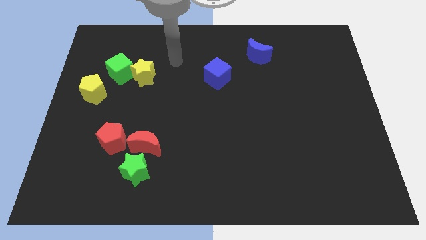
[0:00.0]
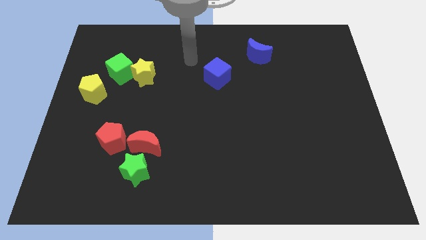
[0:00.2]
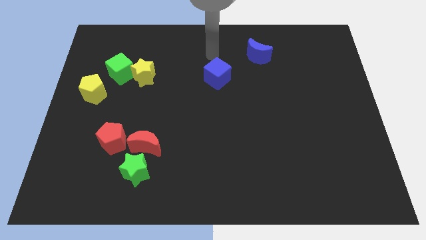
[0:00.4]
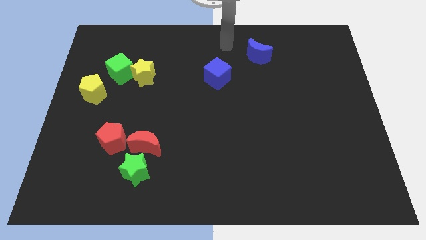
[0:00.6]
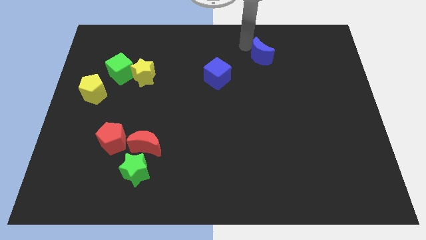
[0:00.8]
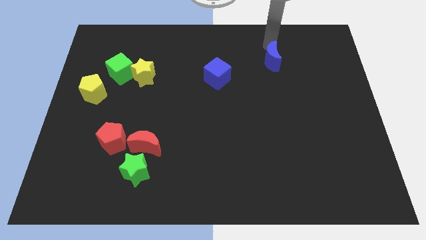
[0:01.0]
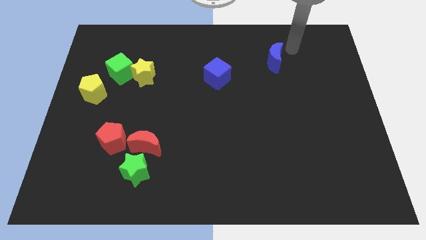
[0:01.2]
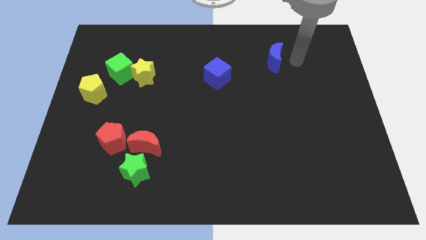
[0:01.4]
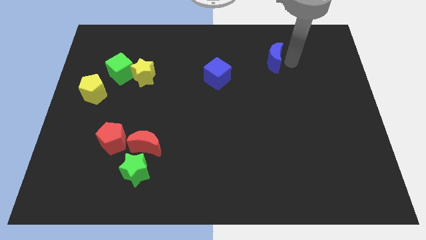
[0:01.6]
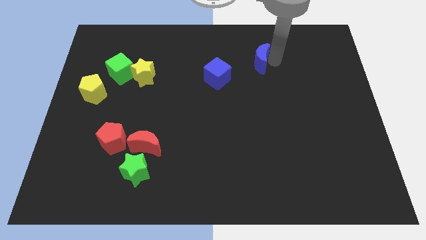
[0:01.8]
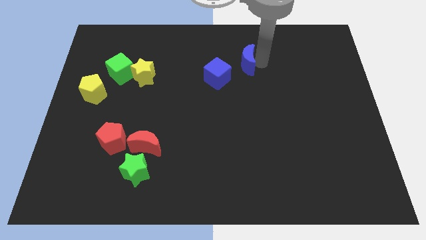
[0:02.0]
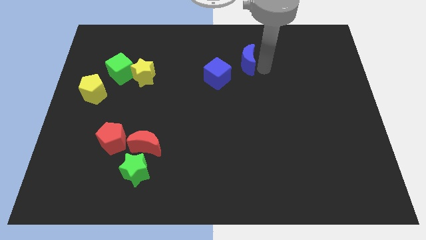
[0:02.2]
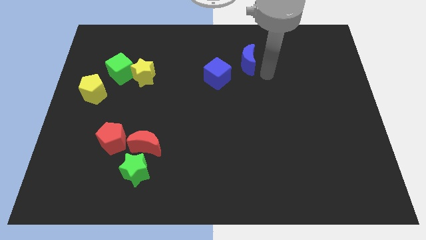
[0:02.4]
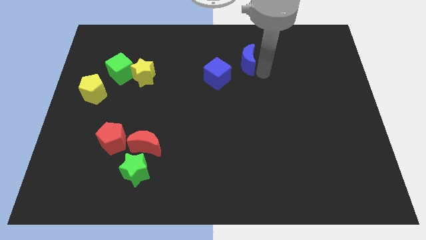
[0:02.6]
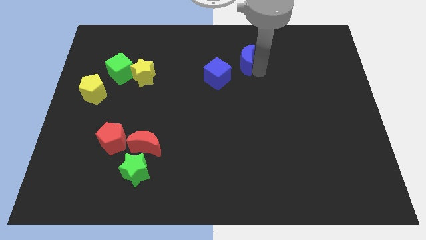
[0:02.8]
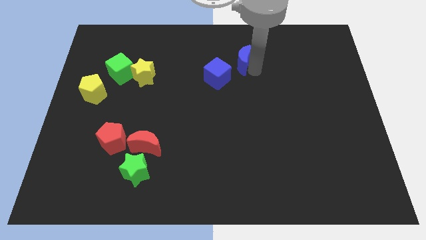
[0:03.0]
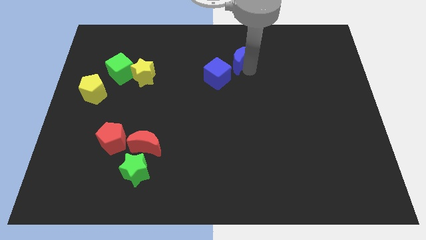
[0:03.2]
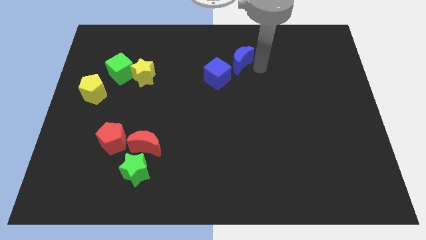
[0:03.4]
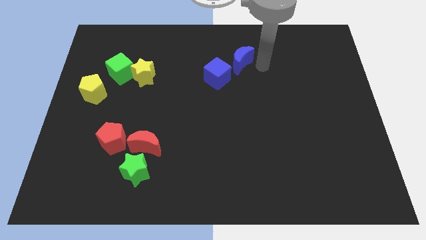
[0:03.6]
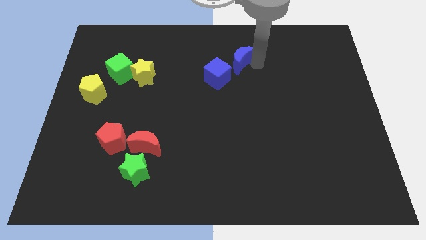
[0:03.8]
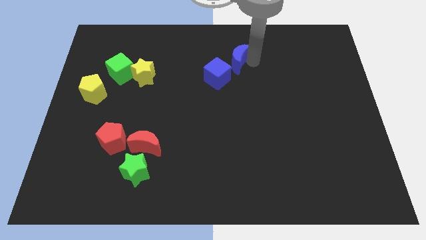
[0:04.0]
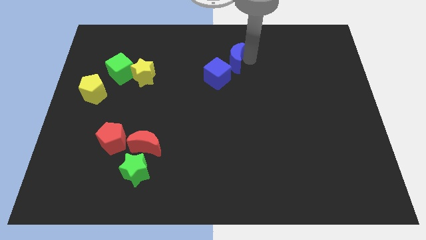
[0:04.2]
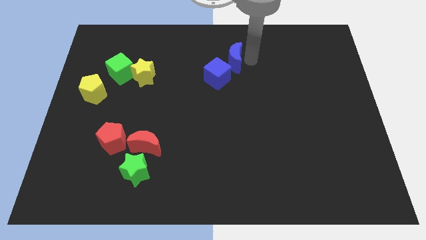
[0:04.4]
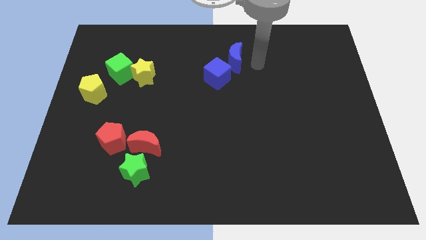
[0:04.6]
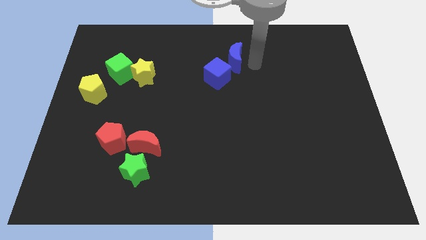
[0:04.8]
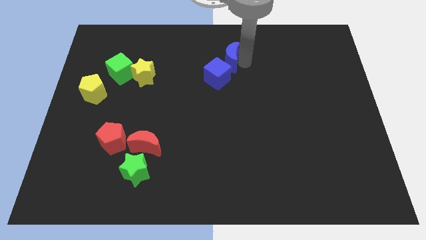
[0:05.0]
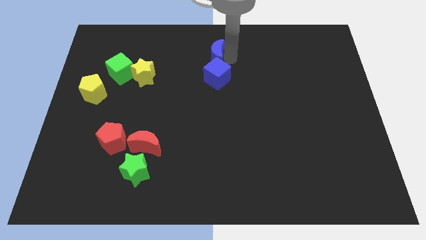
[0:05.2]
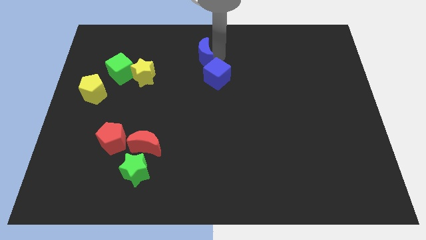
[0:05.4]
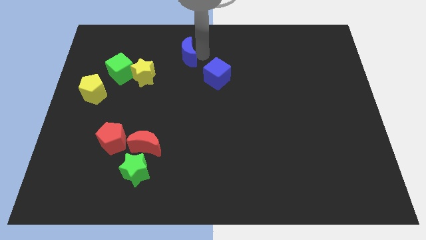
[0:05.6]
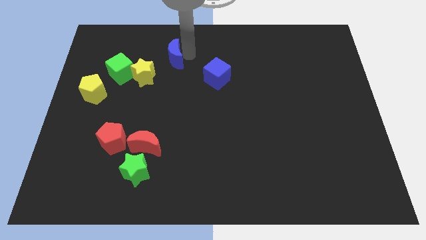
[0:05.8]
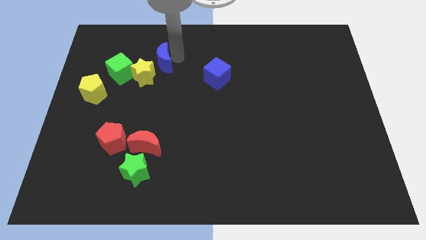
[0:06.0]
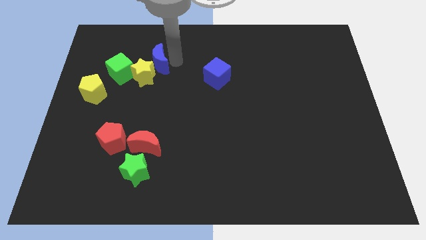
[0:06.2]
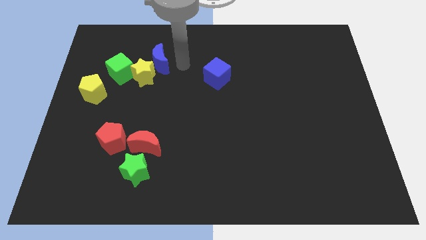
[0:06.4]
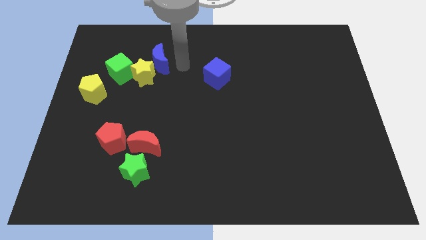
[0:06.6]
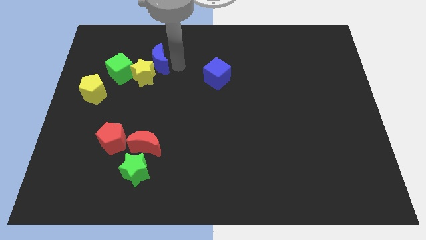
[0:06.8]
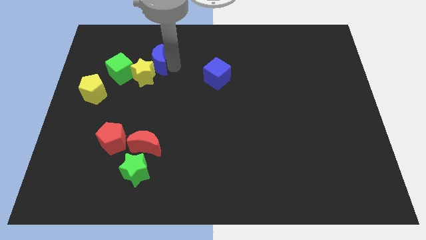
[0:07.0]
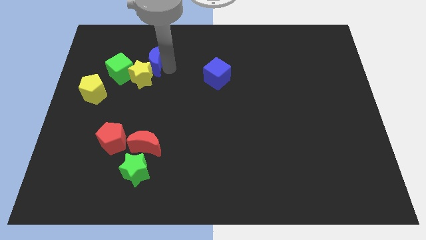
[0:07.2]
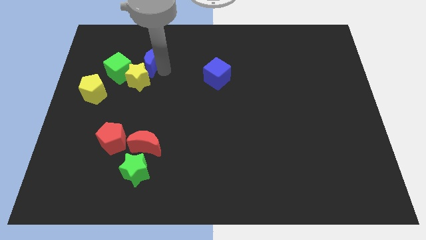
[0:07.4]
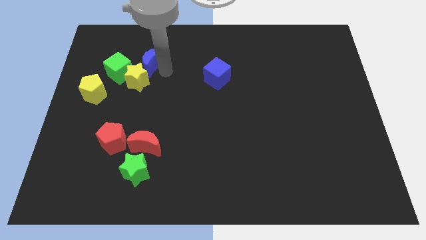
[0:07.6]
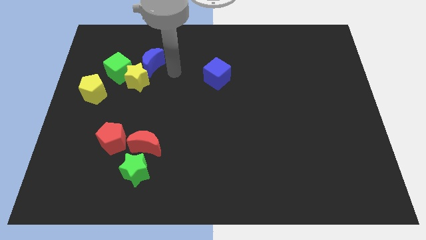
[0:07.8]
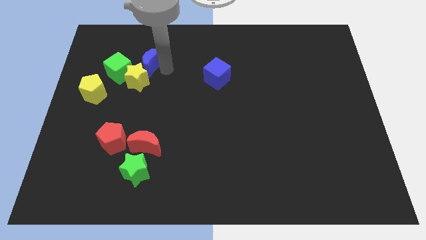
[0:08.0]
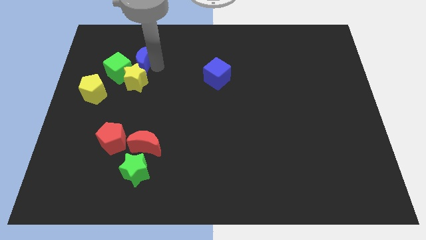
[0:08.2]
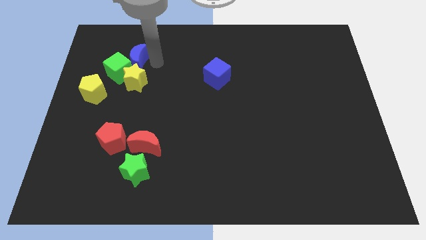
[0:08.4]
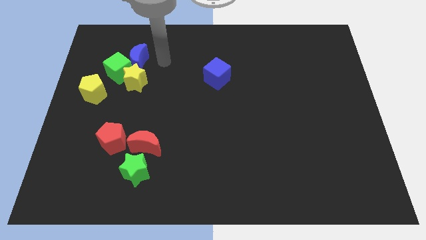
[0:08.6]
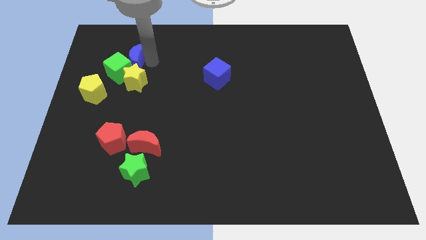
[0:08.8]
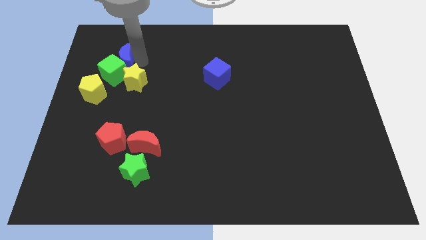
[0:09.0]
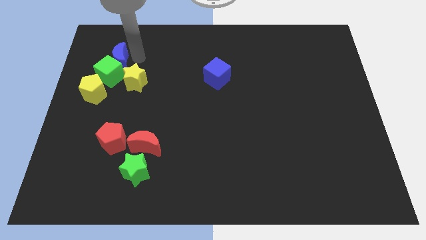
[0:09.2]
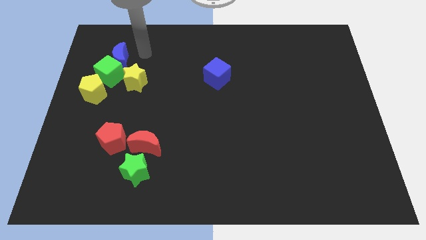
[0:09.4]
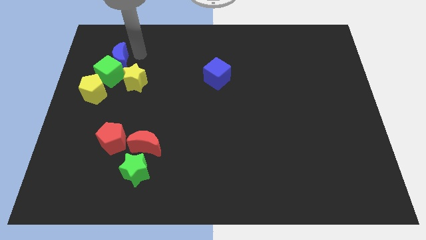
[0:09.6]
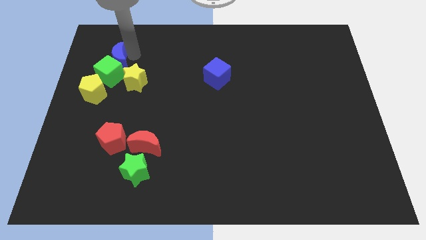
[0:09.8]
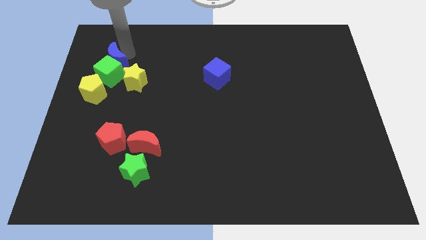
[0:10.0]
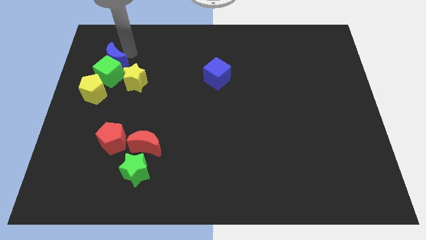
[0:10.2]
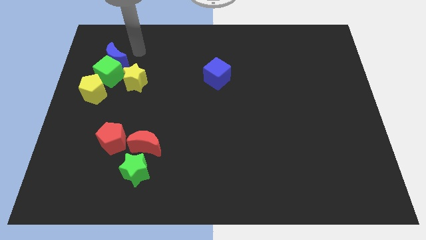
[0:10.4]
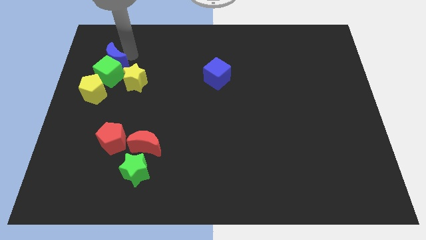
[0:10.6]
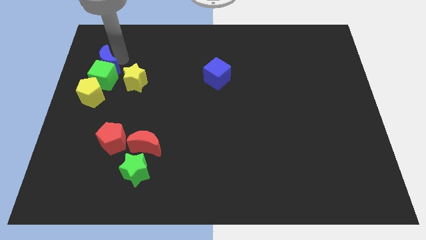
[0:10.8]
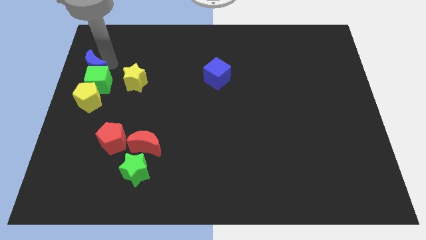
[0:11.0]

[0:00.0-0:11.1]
push the blue moon to the center left

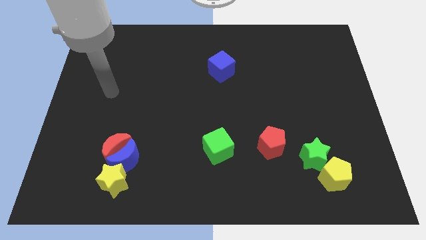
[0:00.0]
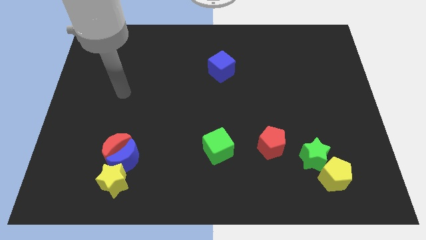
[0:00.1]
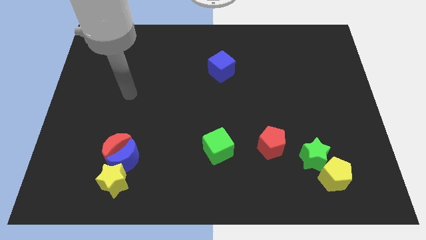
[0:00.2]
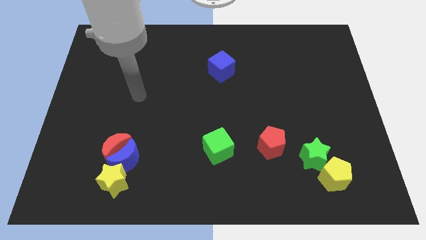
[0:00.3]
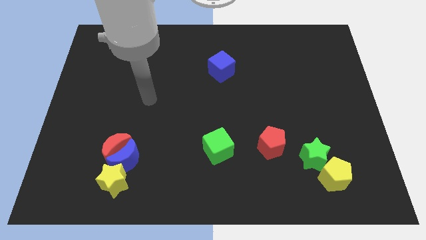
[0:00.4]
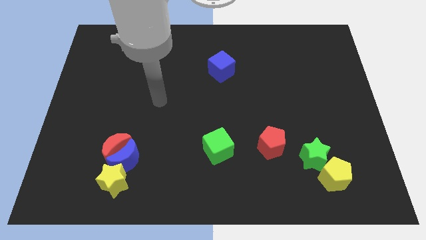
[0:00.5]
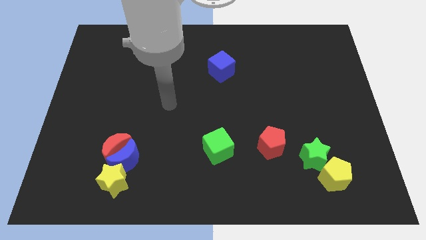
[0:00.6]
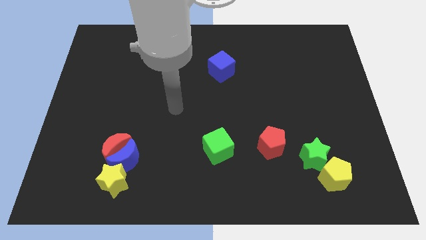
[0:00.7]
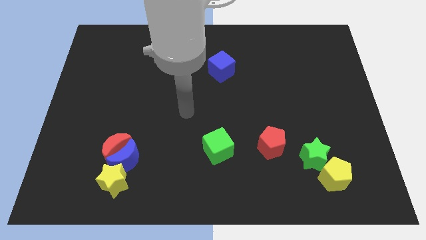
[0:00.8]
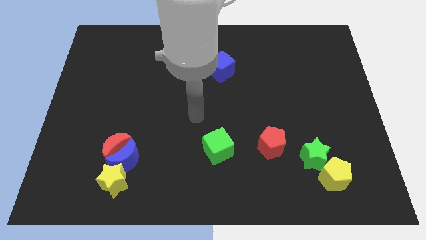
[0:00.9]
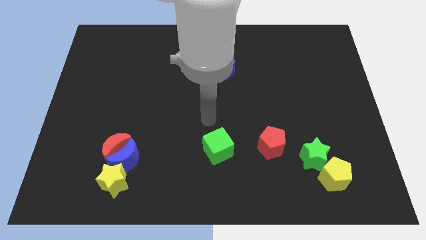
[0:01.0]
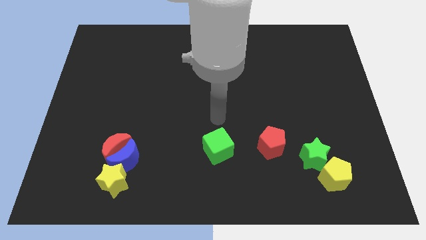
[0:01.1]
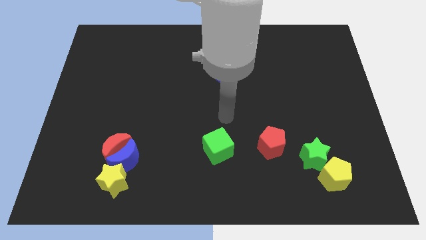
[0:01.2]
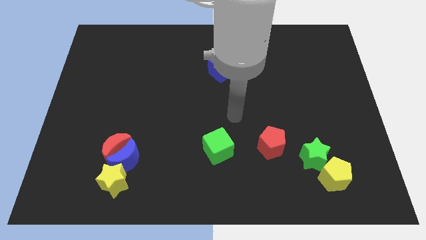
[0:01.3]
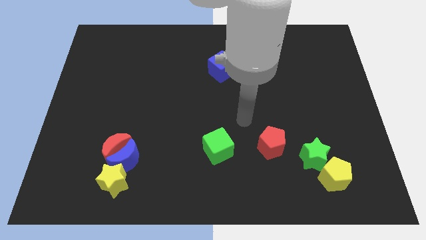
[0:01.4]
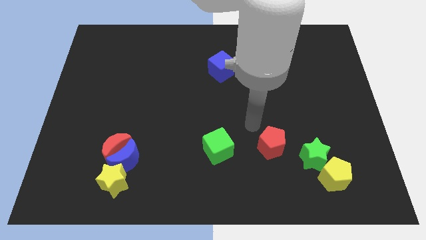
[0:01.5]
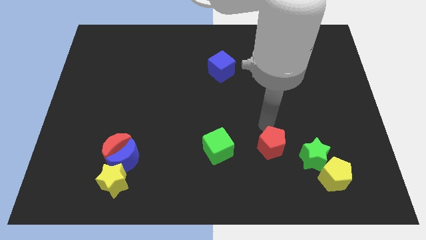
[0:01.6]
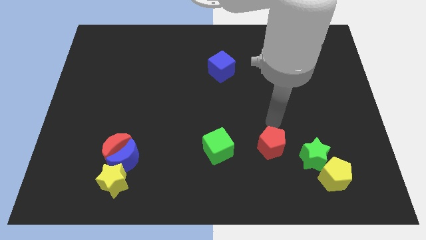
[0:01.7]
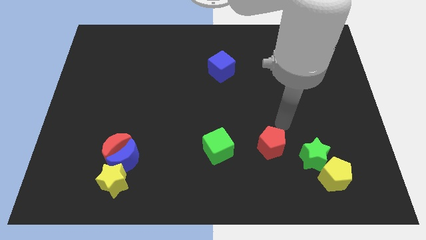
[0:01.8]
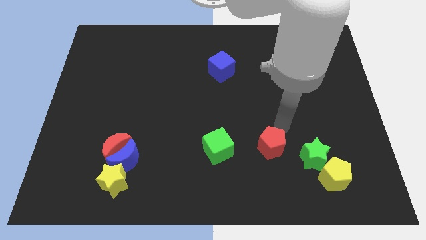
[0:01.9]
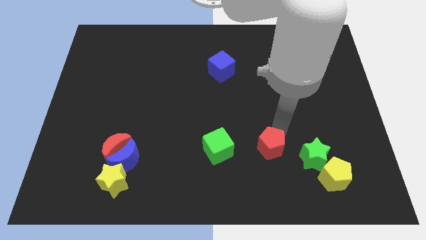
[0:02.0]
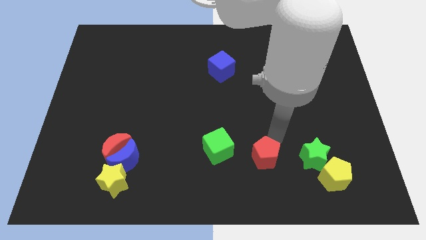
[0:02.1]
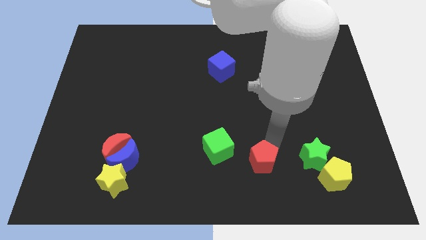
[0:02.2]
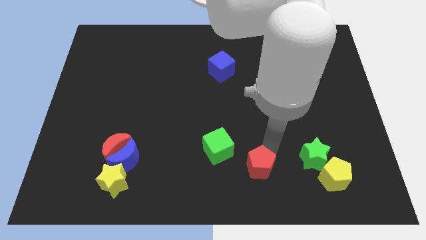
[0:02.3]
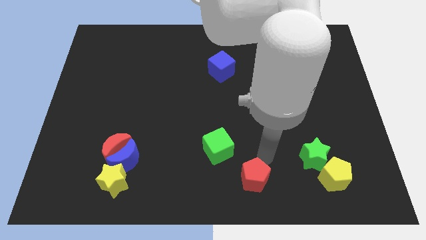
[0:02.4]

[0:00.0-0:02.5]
slide the red pentagon to the bottom side
